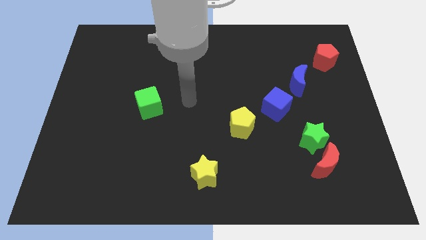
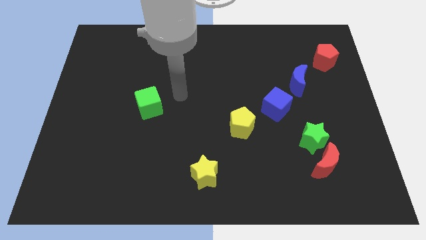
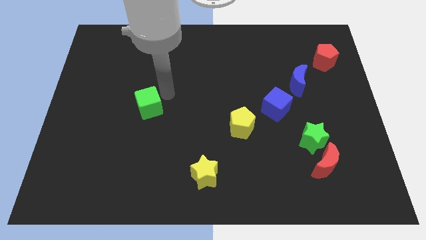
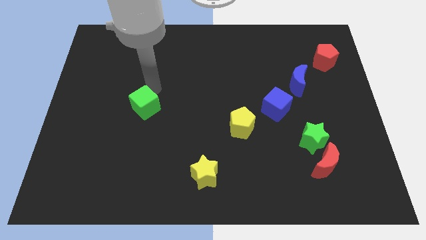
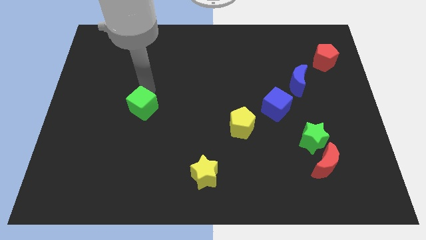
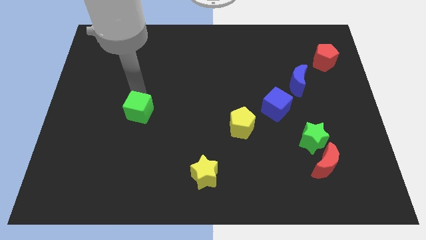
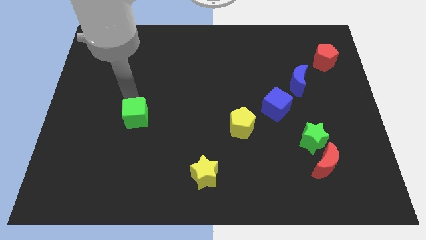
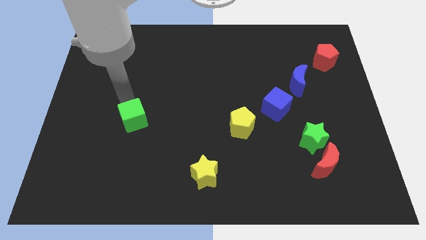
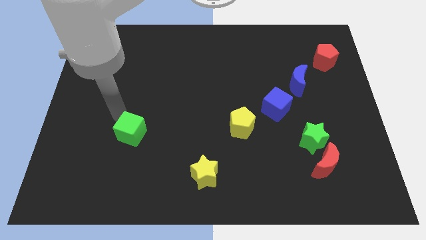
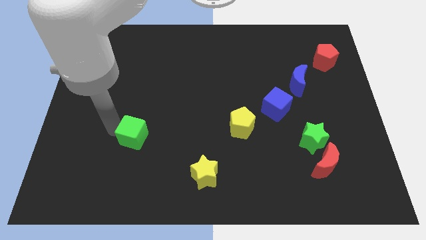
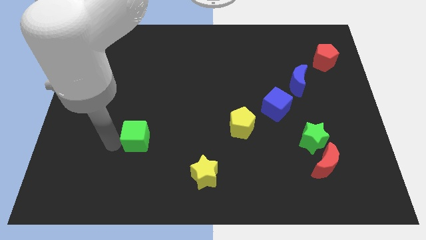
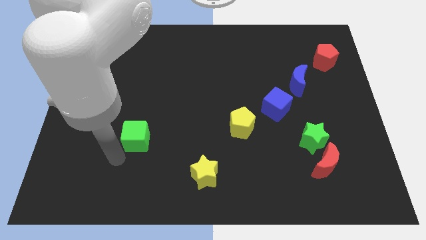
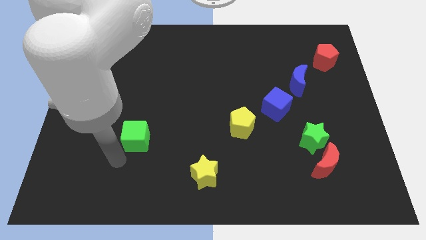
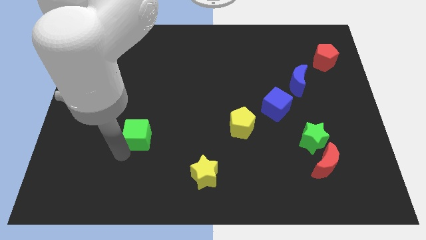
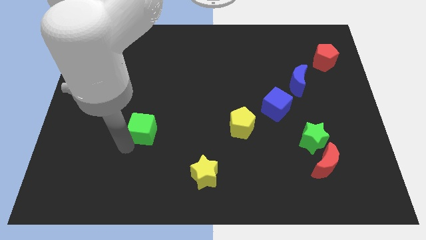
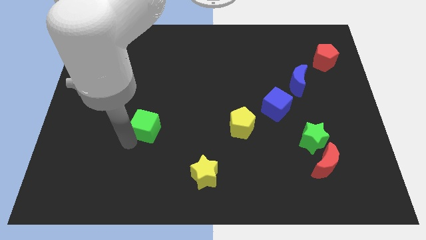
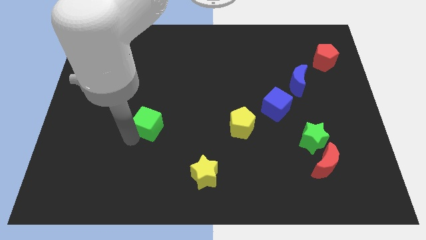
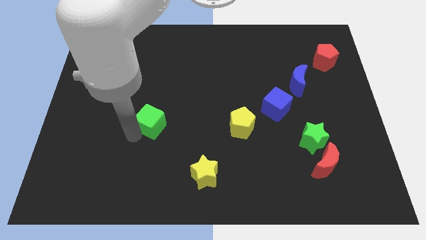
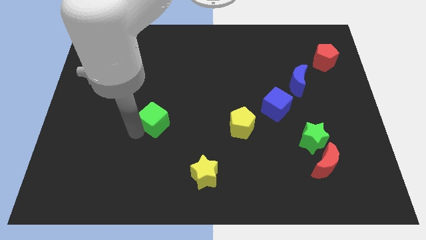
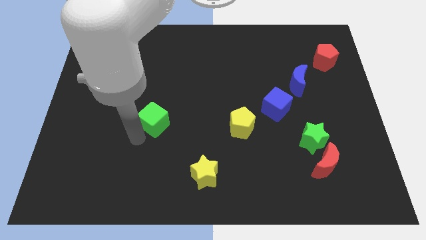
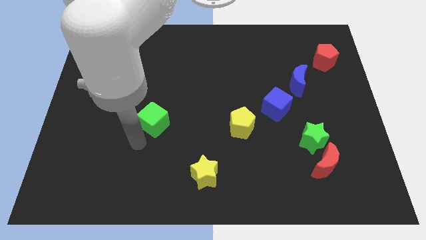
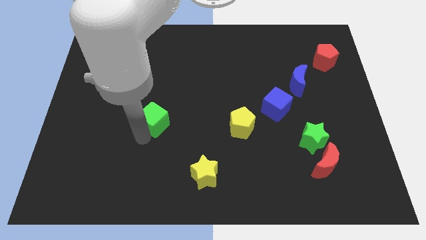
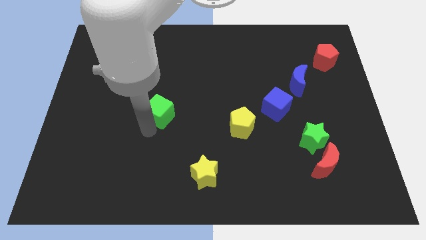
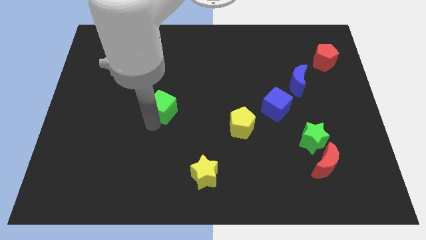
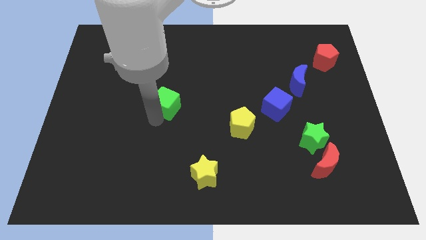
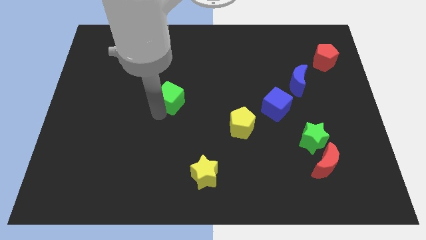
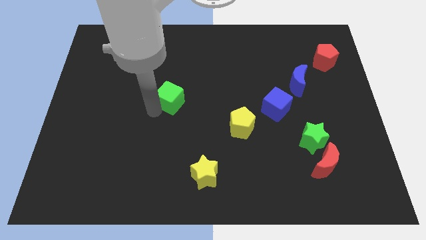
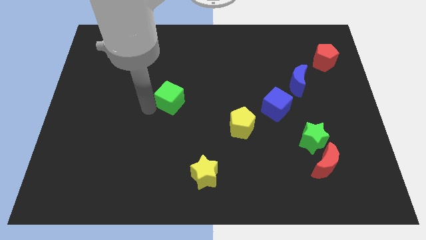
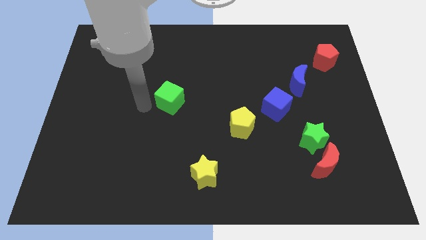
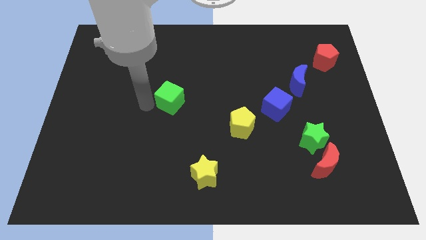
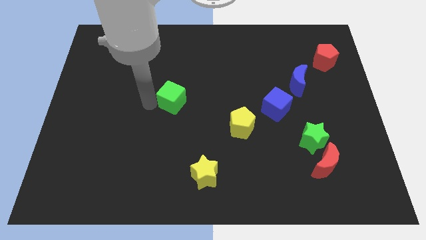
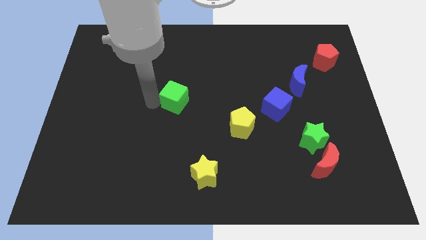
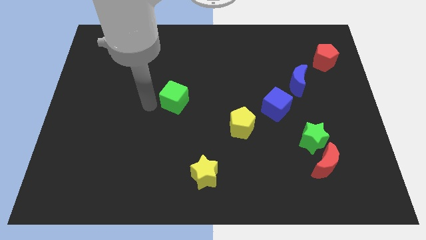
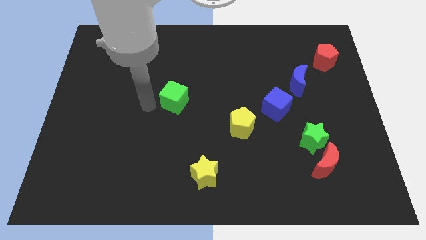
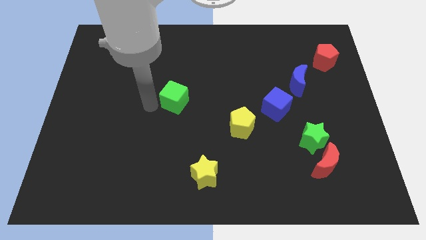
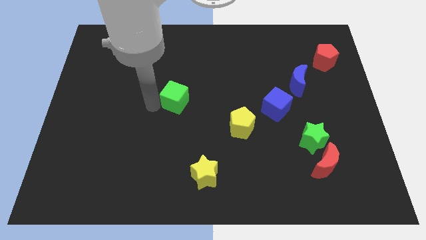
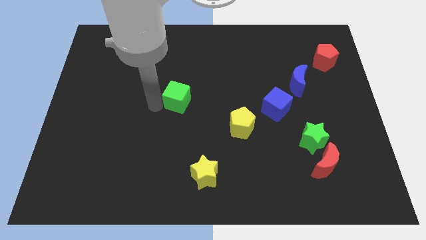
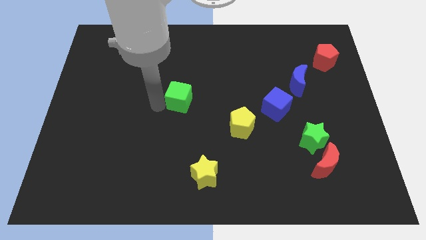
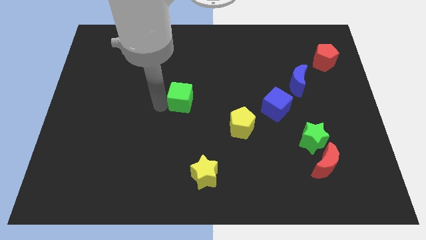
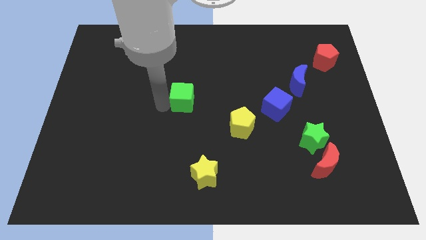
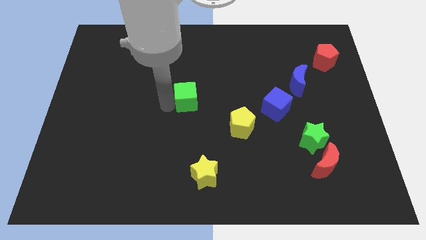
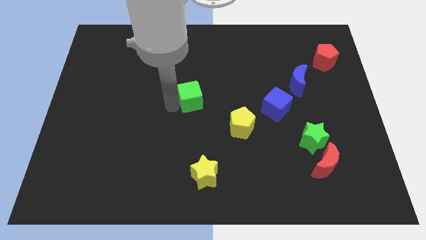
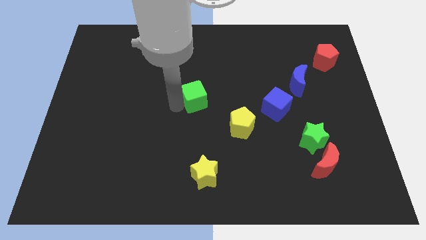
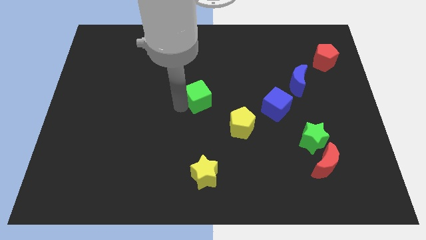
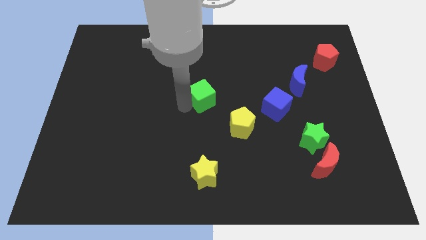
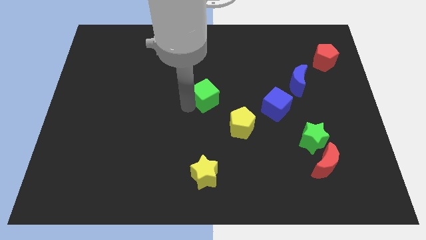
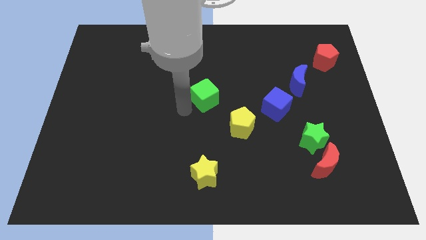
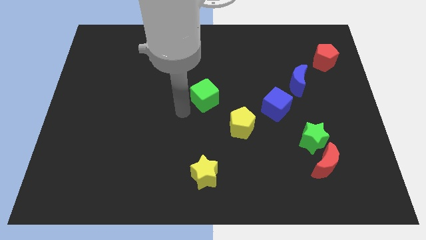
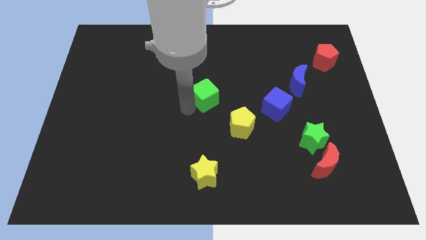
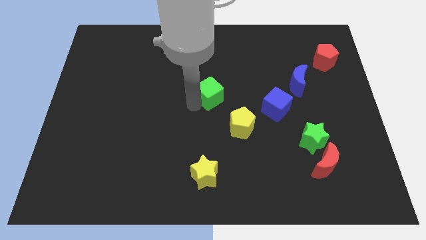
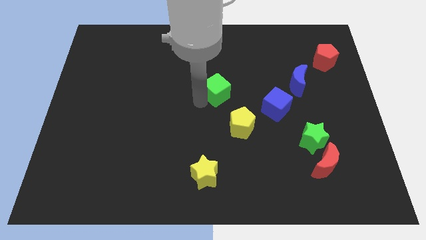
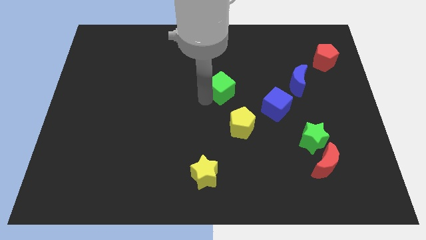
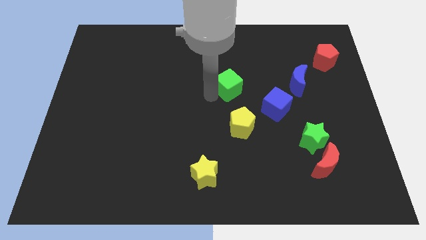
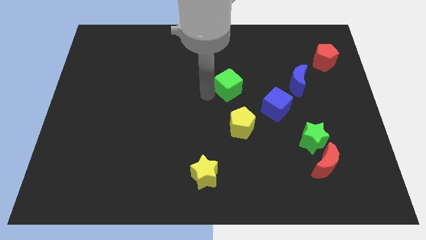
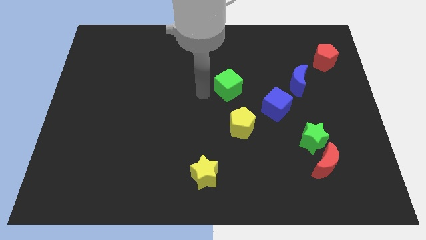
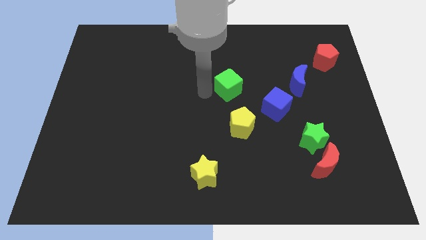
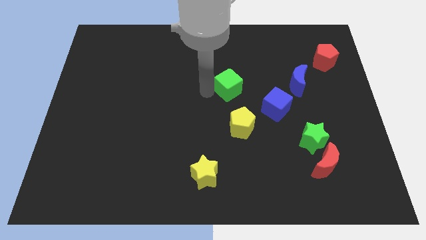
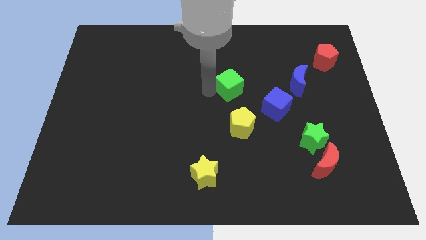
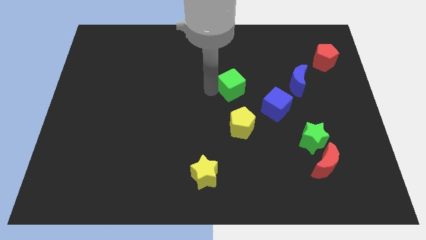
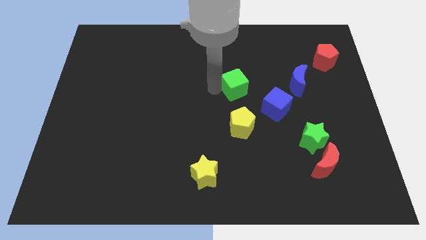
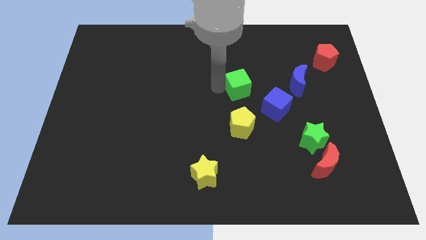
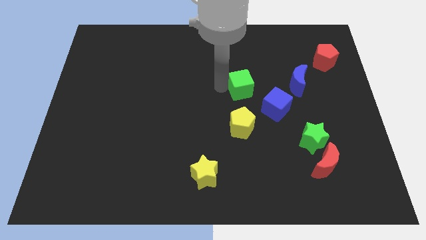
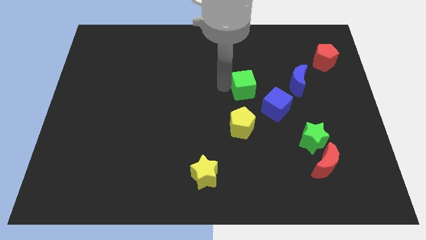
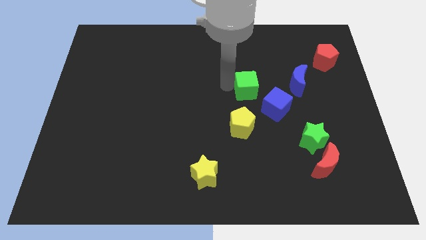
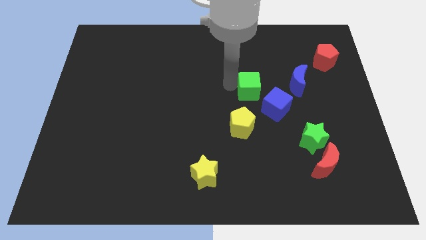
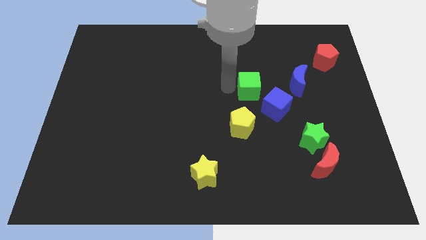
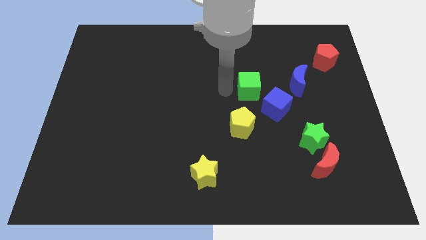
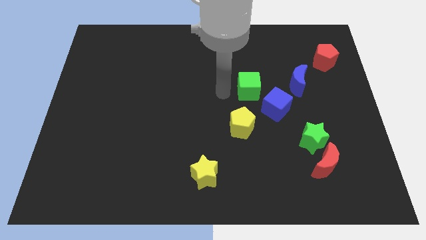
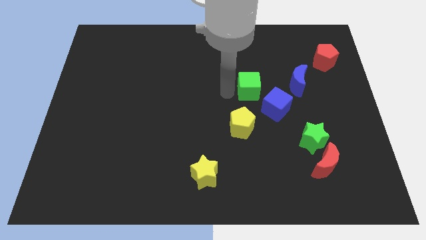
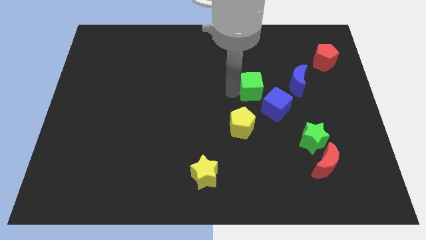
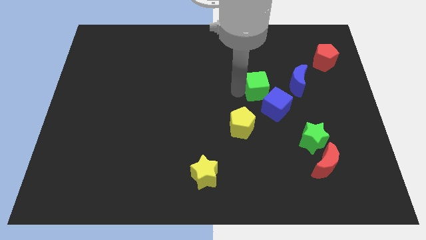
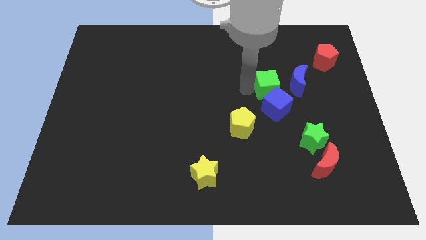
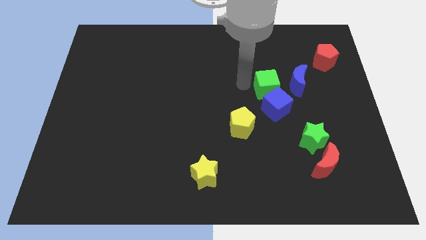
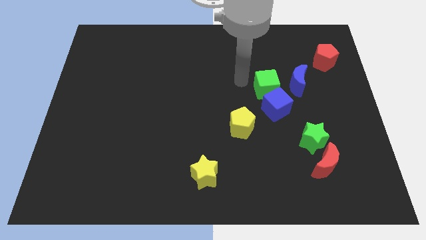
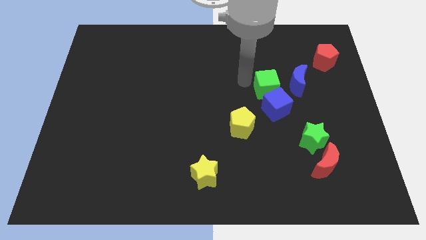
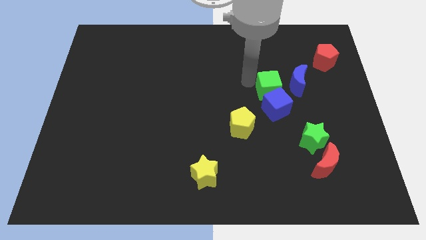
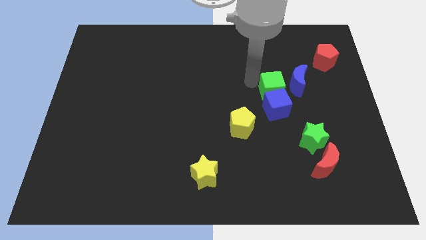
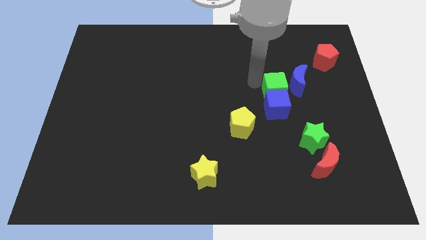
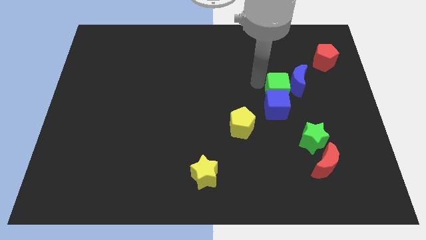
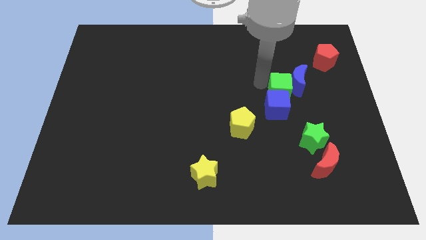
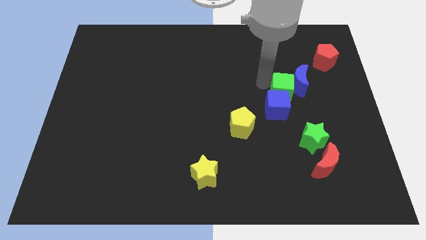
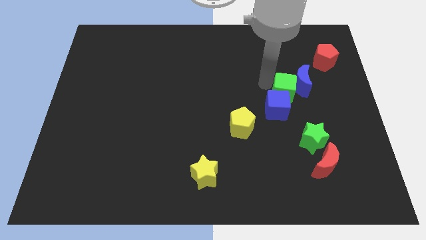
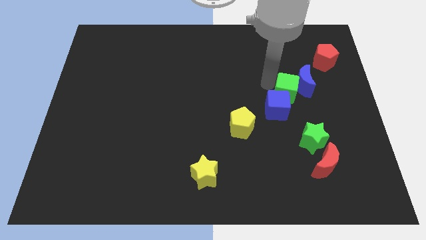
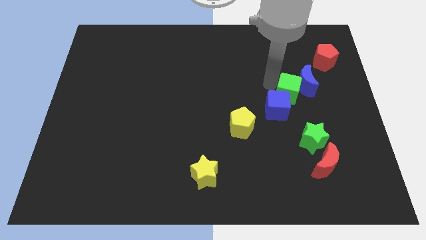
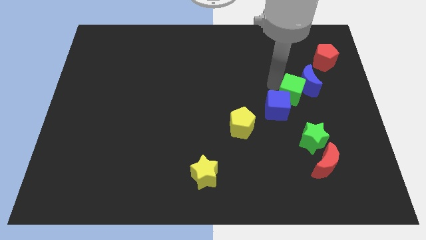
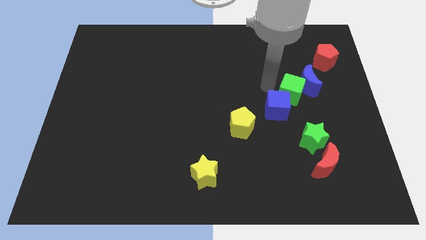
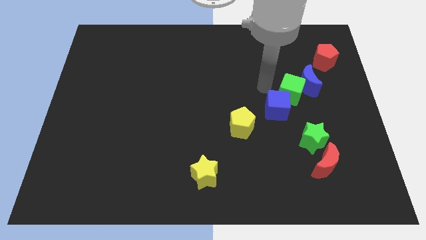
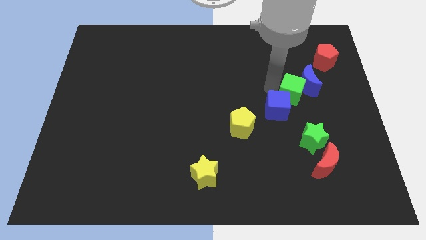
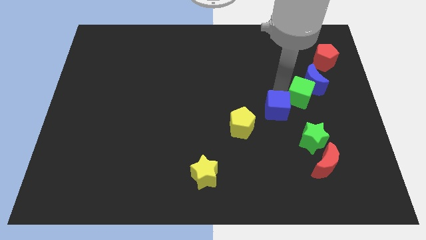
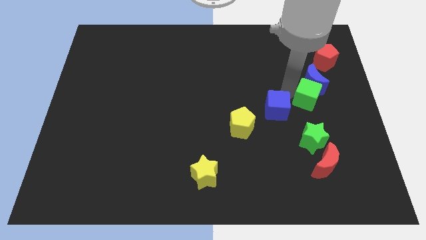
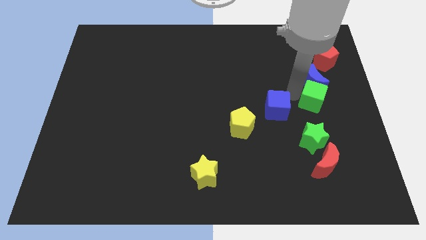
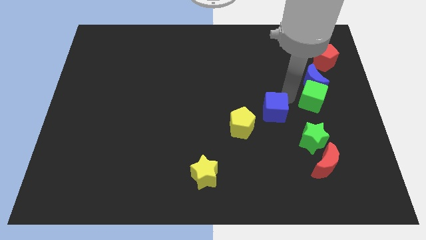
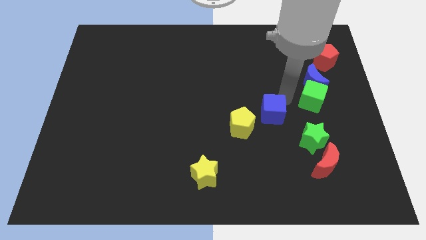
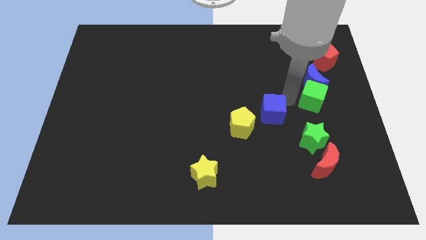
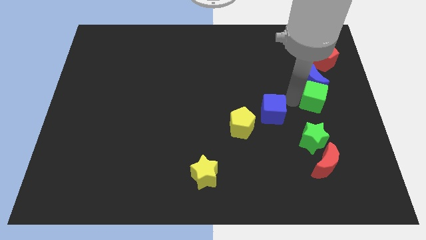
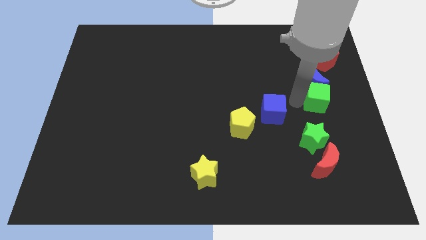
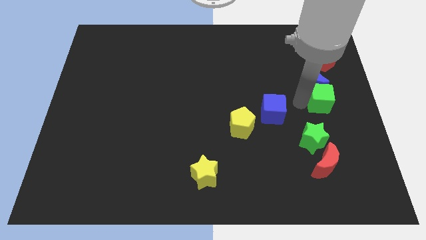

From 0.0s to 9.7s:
move the green cube to the center right
